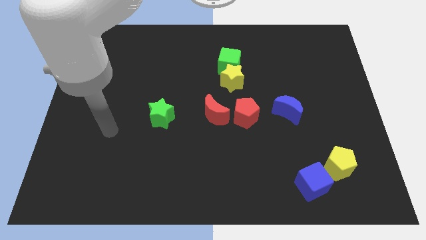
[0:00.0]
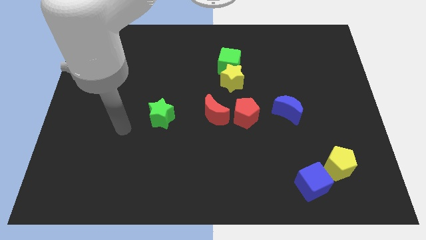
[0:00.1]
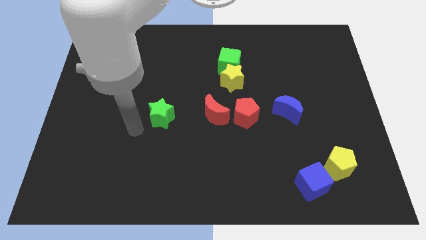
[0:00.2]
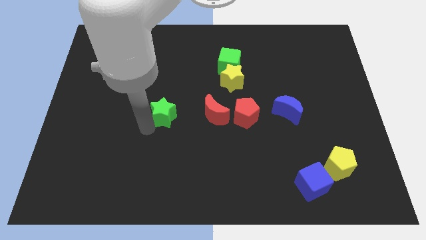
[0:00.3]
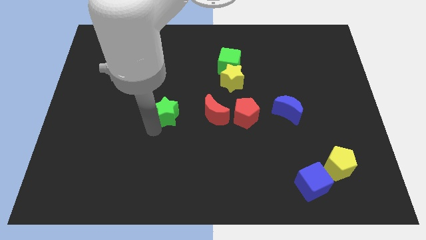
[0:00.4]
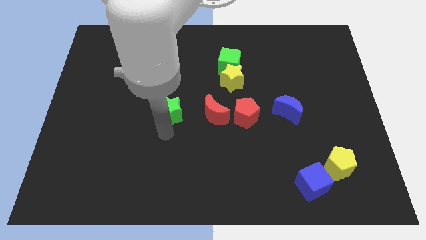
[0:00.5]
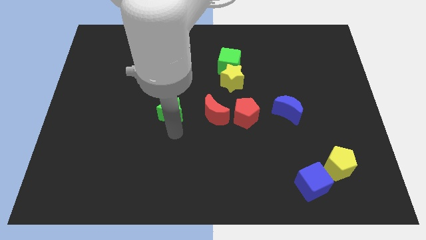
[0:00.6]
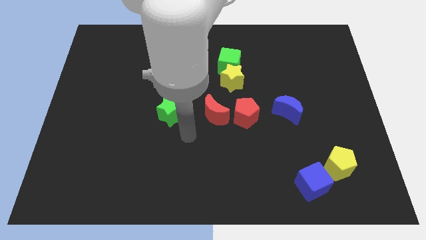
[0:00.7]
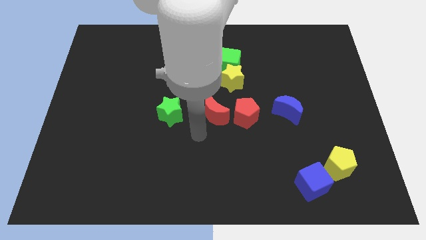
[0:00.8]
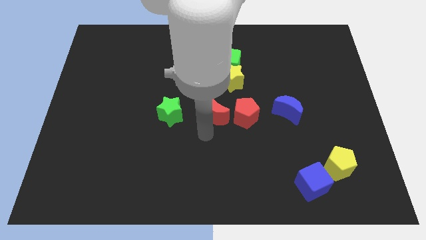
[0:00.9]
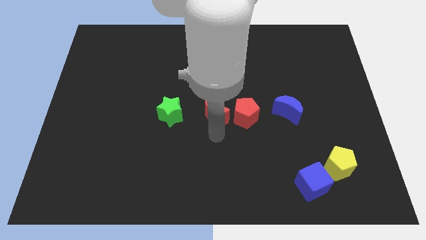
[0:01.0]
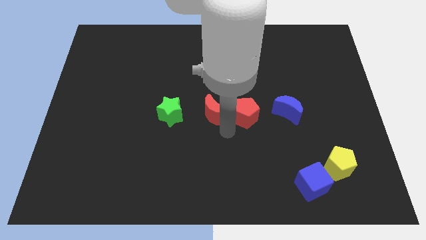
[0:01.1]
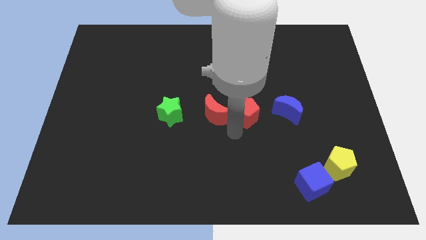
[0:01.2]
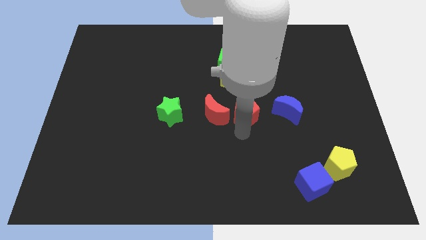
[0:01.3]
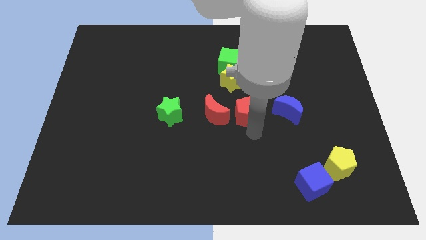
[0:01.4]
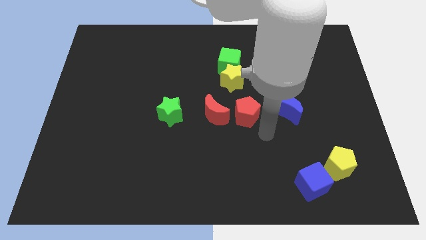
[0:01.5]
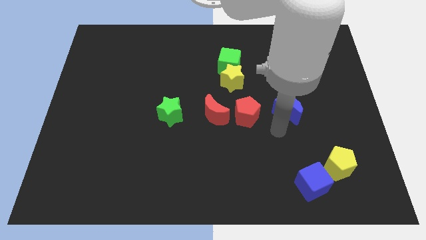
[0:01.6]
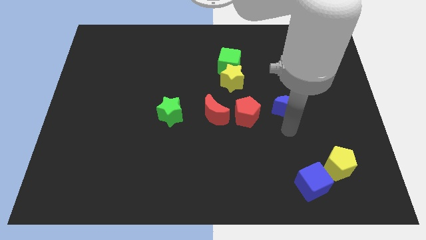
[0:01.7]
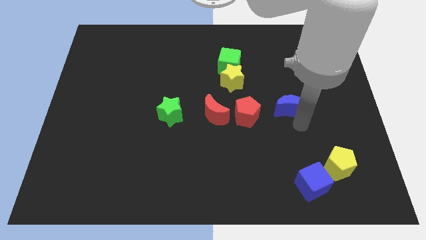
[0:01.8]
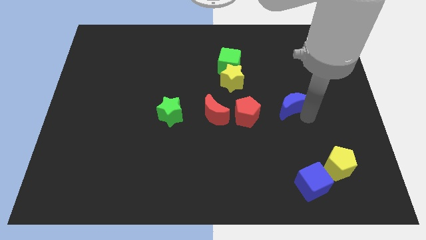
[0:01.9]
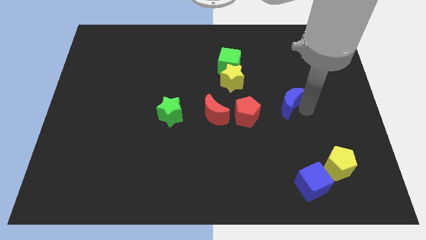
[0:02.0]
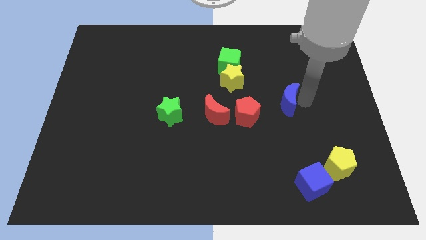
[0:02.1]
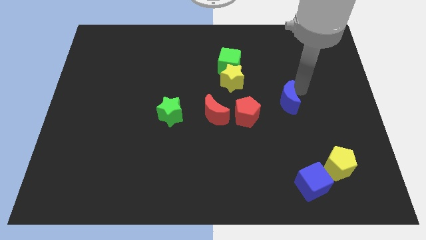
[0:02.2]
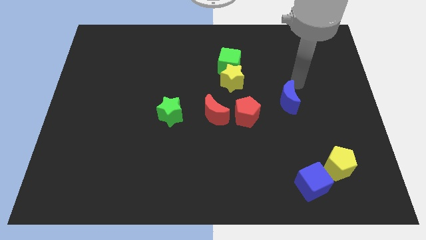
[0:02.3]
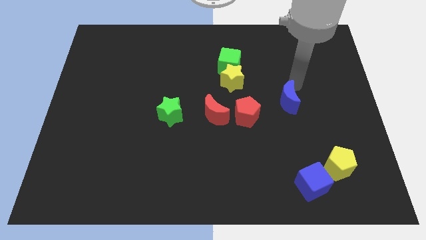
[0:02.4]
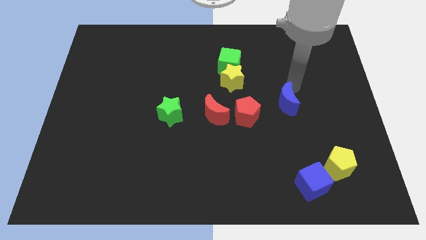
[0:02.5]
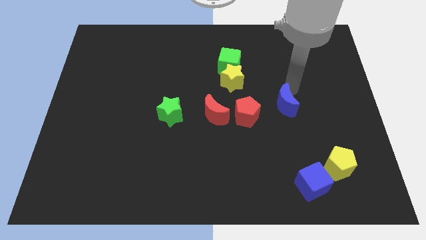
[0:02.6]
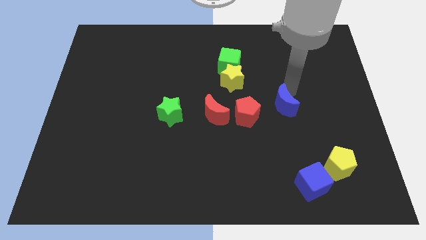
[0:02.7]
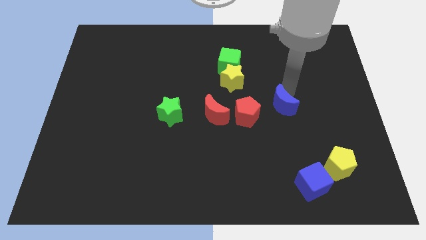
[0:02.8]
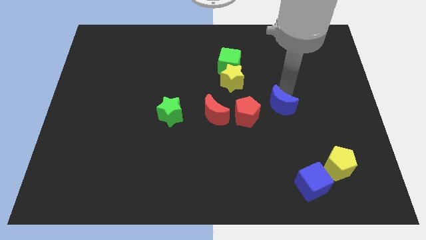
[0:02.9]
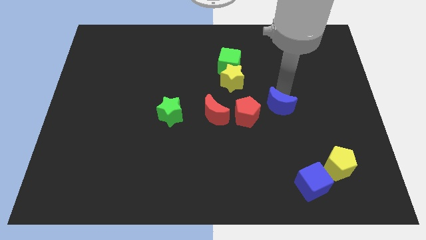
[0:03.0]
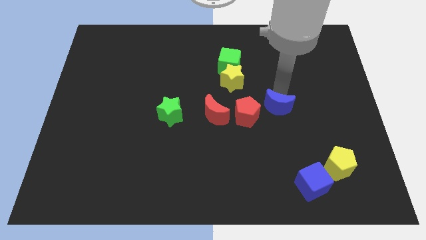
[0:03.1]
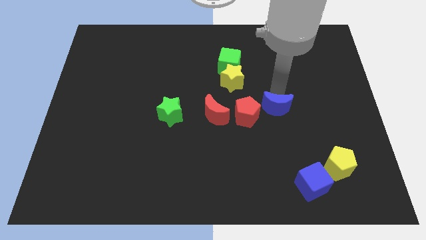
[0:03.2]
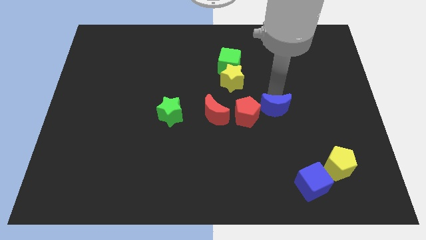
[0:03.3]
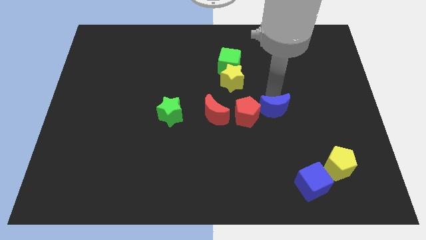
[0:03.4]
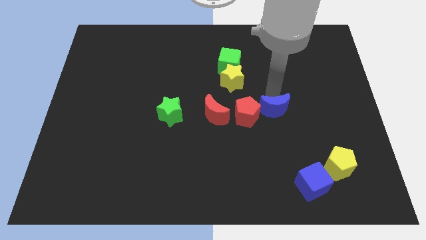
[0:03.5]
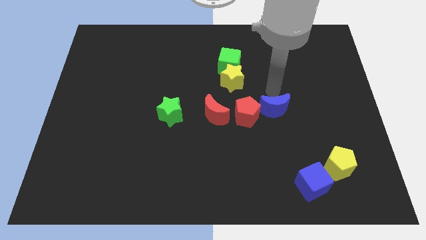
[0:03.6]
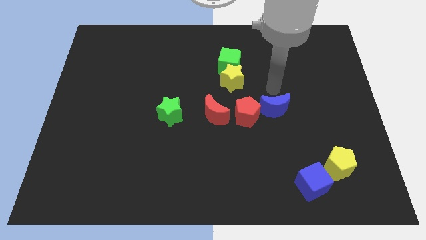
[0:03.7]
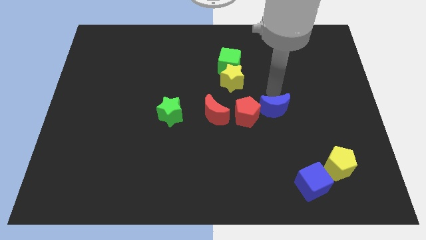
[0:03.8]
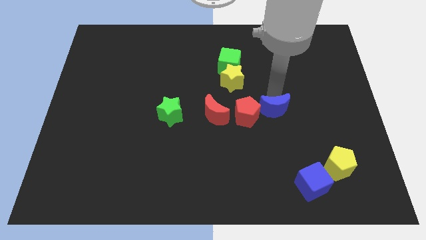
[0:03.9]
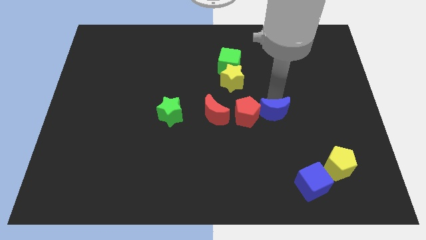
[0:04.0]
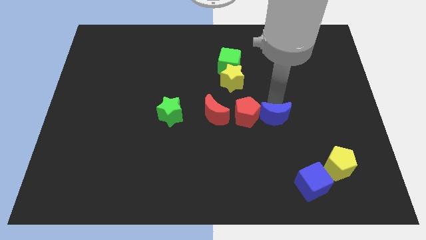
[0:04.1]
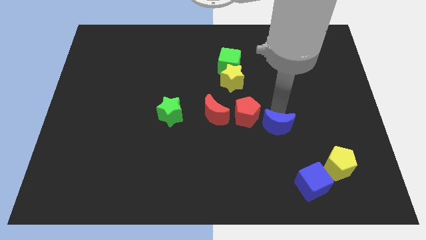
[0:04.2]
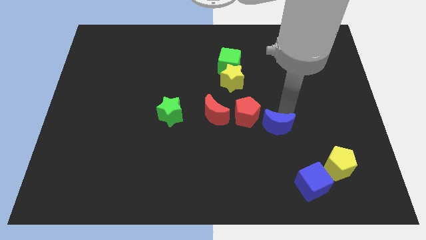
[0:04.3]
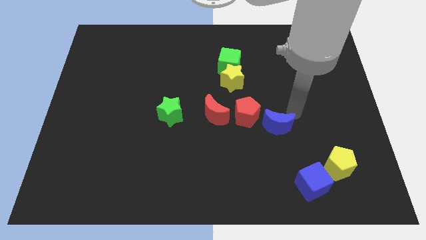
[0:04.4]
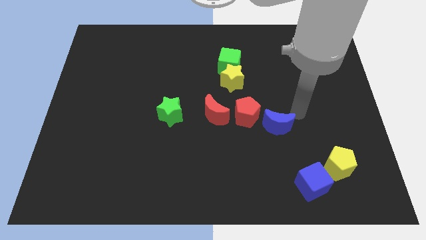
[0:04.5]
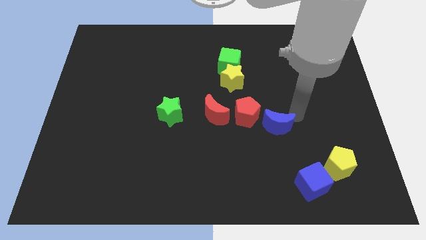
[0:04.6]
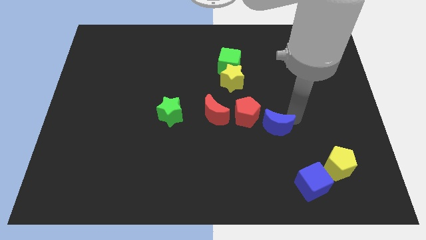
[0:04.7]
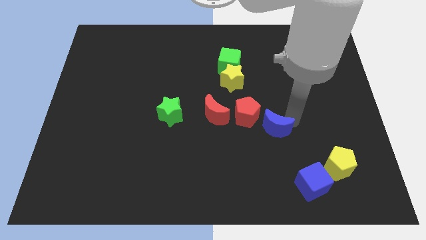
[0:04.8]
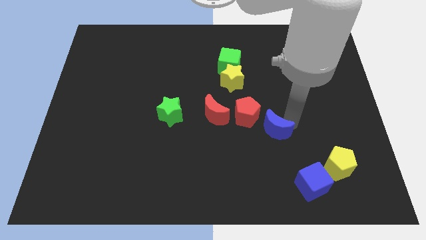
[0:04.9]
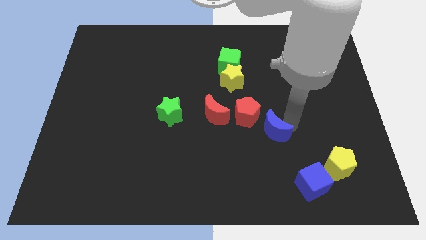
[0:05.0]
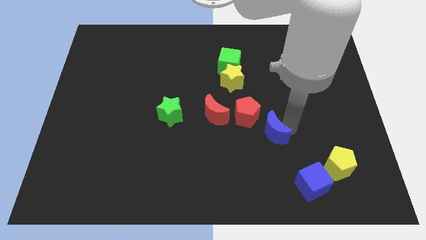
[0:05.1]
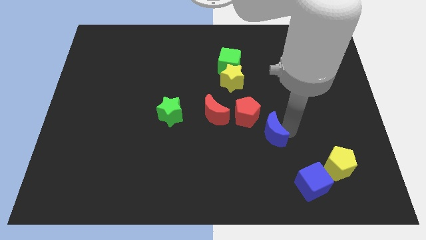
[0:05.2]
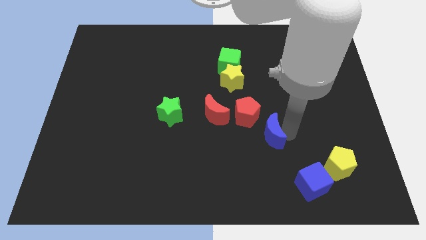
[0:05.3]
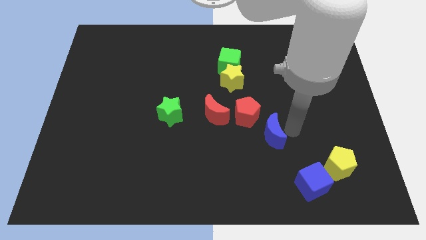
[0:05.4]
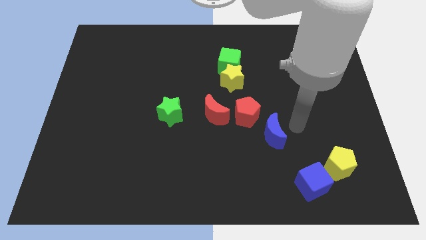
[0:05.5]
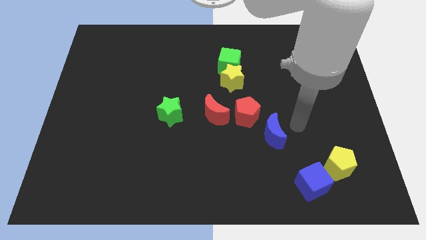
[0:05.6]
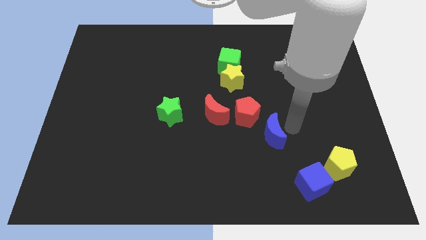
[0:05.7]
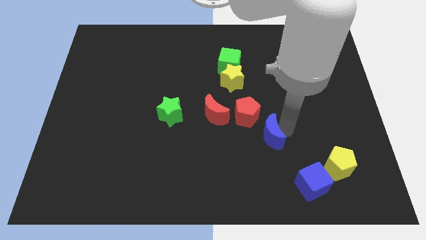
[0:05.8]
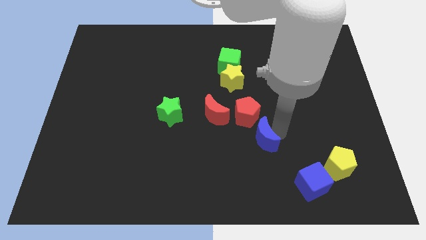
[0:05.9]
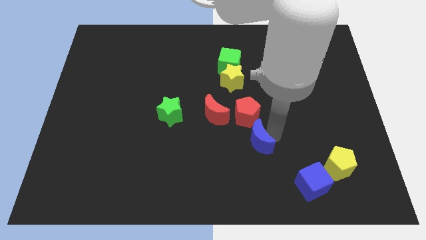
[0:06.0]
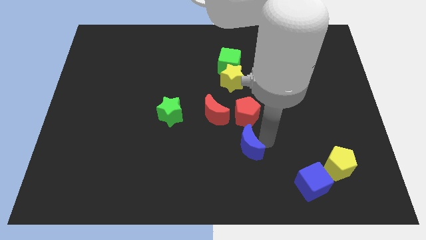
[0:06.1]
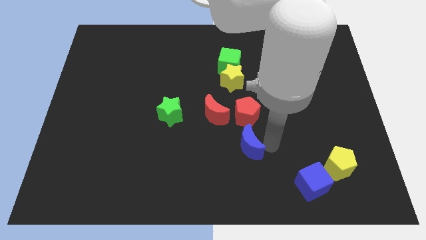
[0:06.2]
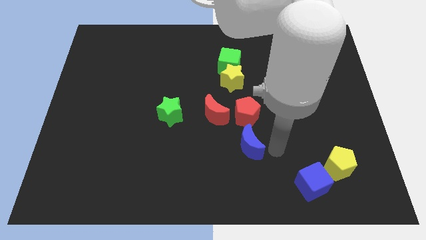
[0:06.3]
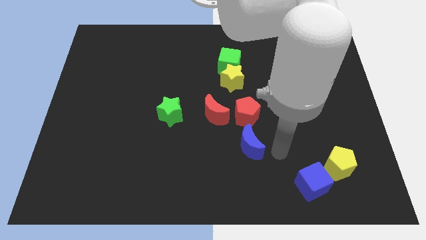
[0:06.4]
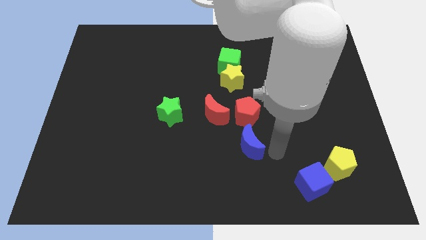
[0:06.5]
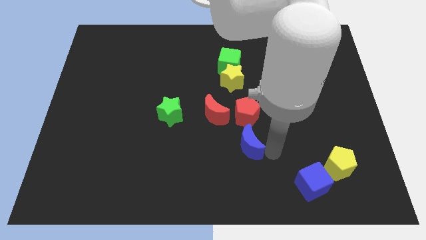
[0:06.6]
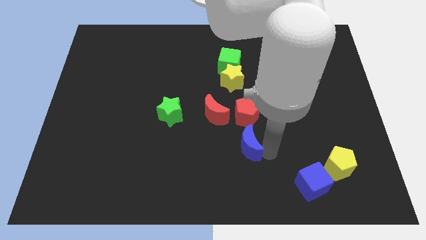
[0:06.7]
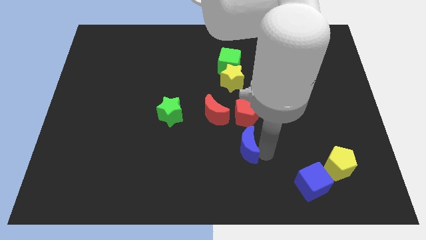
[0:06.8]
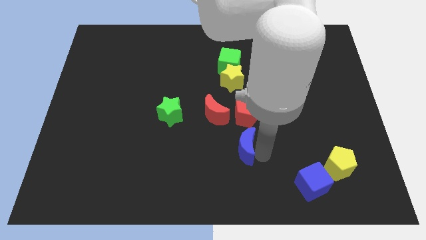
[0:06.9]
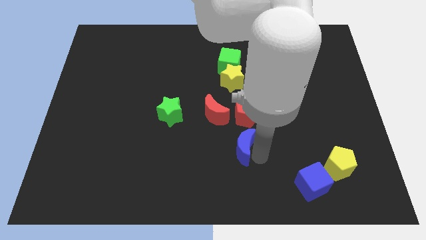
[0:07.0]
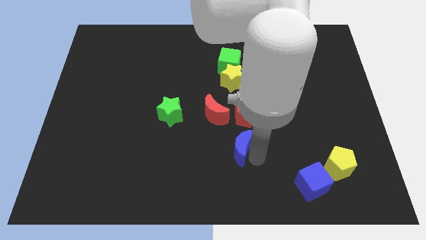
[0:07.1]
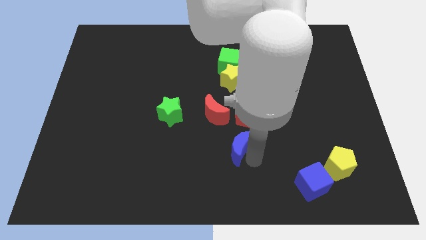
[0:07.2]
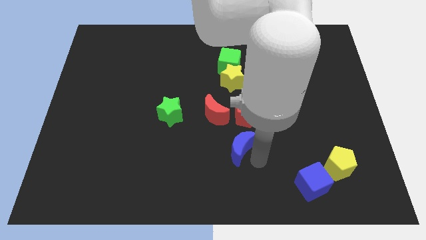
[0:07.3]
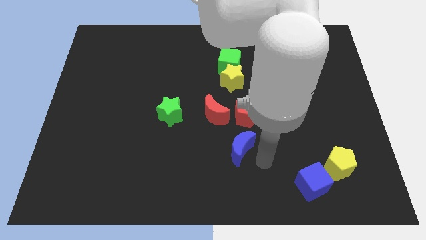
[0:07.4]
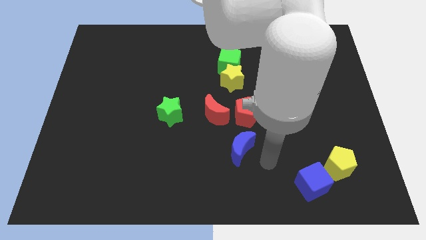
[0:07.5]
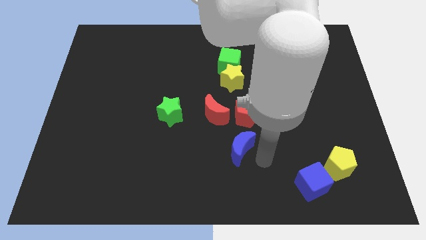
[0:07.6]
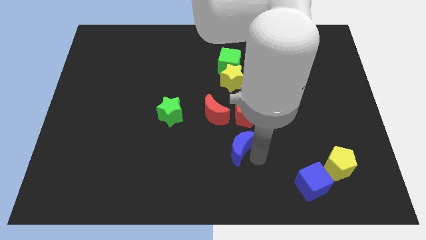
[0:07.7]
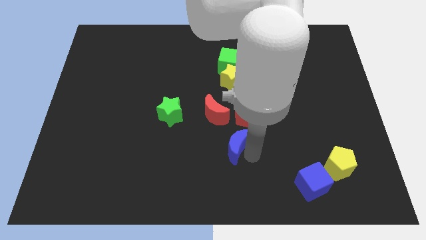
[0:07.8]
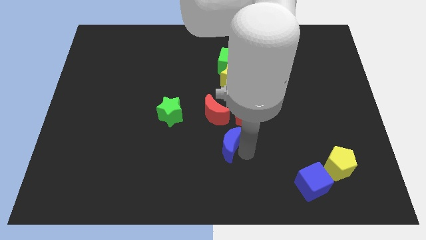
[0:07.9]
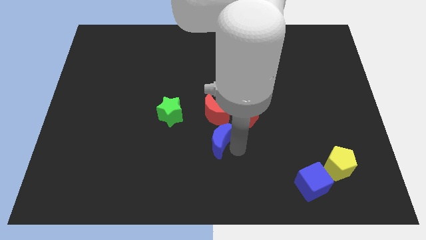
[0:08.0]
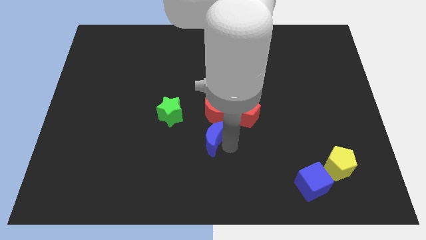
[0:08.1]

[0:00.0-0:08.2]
push the blue moon to the bottom left of the red moon
